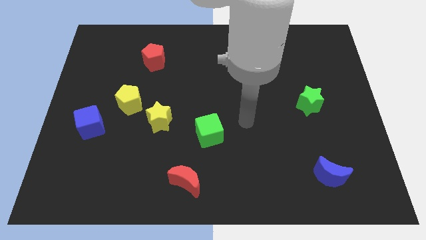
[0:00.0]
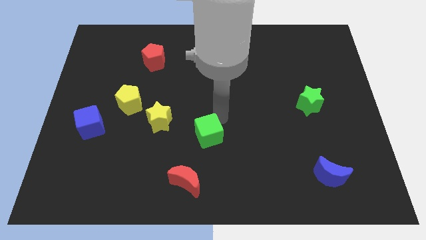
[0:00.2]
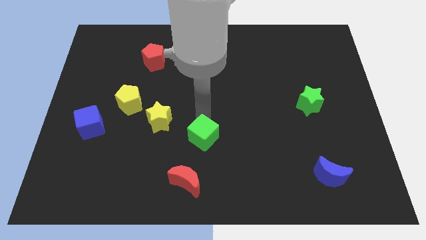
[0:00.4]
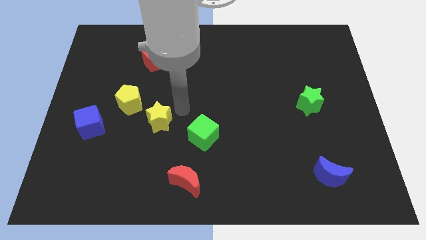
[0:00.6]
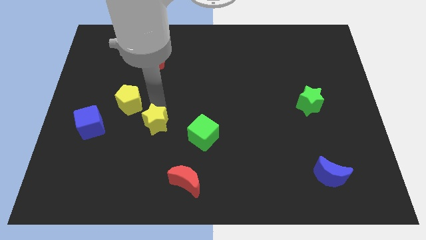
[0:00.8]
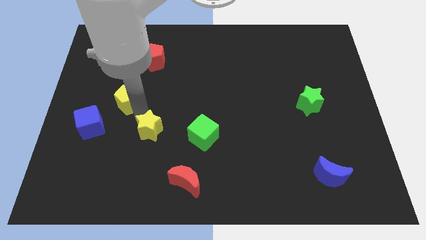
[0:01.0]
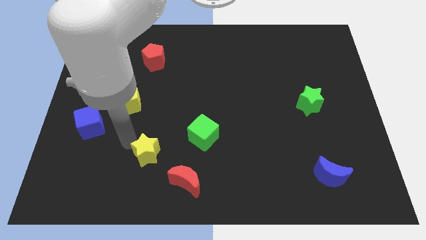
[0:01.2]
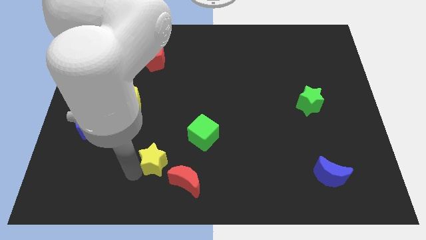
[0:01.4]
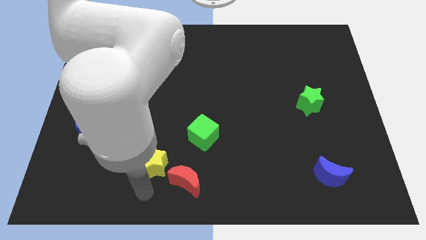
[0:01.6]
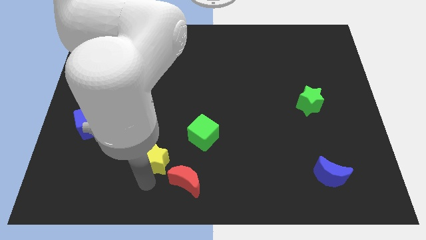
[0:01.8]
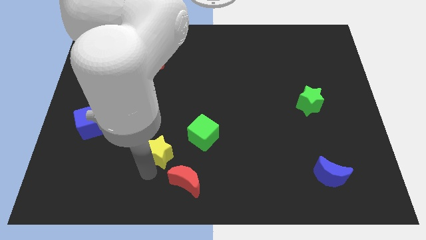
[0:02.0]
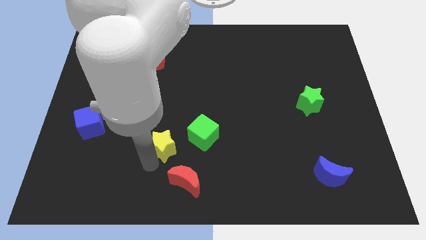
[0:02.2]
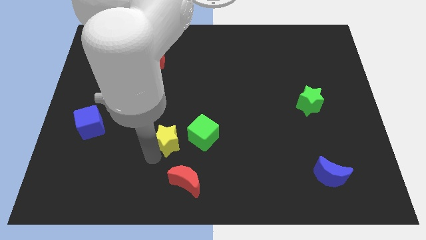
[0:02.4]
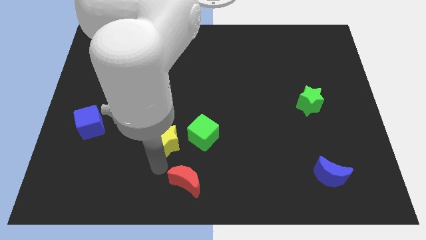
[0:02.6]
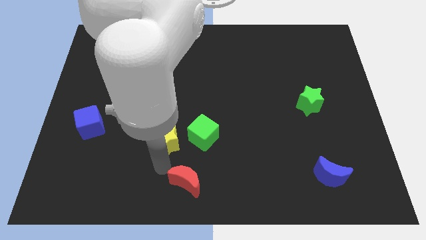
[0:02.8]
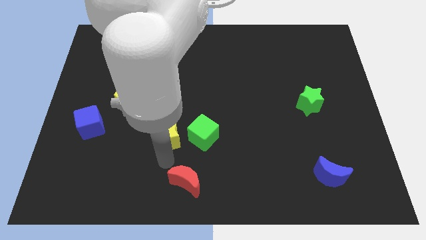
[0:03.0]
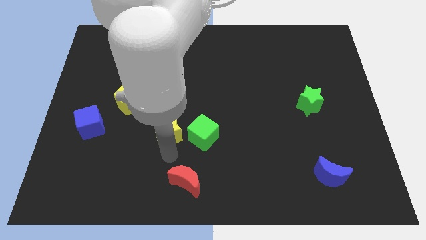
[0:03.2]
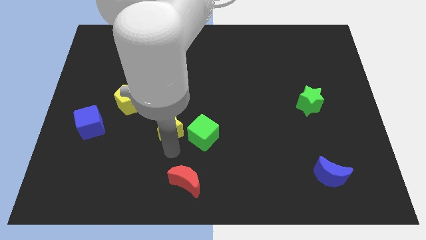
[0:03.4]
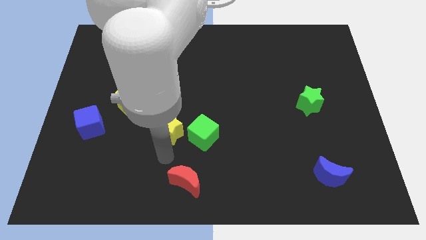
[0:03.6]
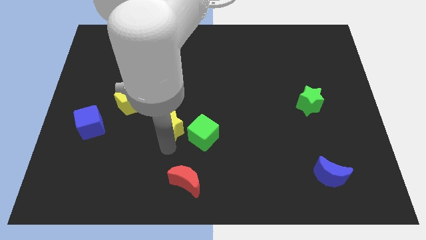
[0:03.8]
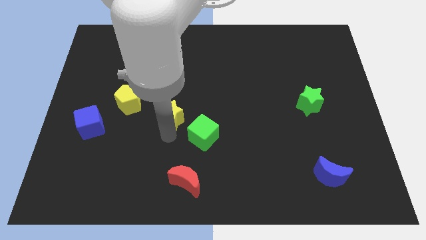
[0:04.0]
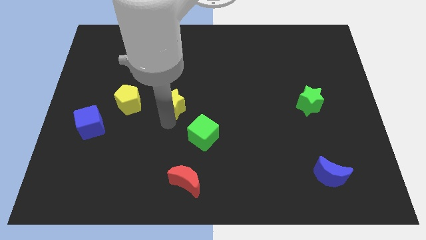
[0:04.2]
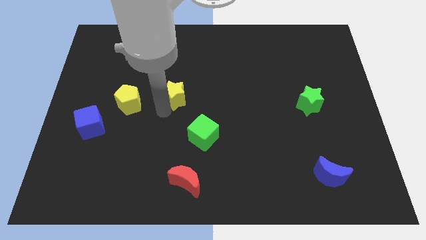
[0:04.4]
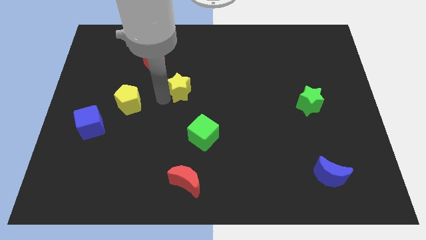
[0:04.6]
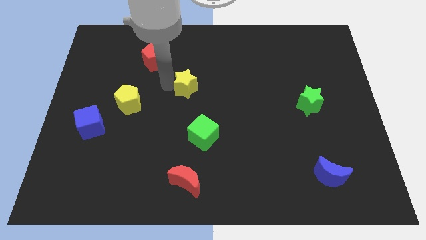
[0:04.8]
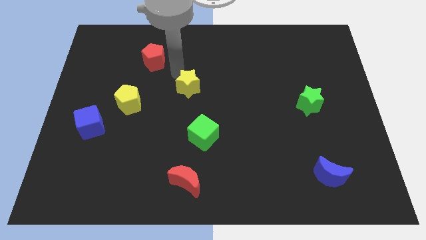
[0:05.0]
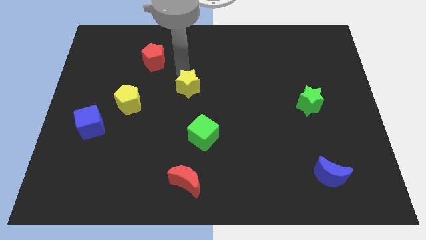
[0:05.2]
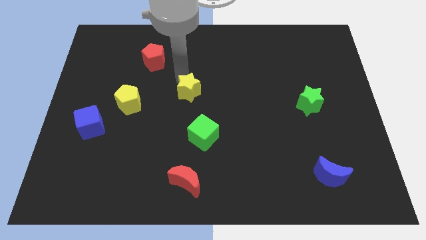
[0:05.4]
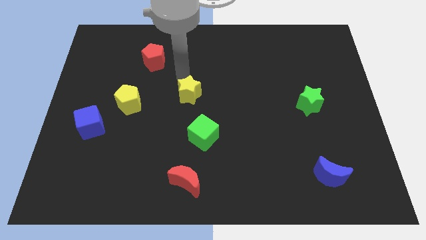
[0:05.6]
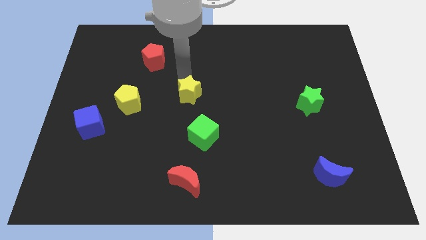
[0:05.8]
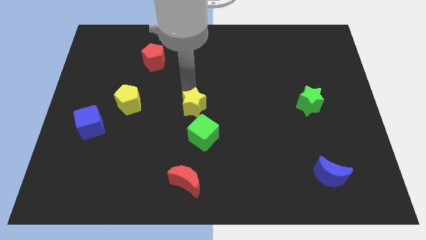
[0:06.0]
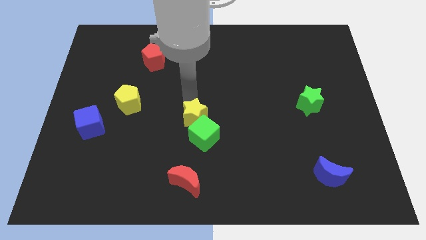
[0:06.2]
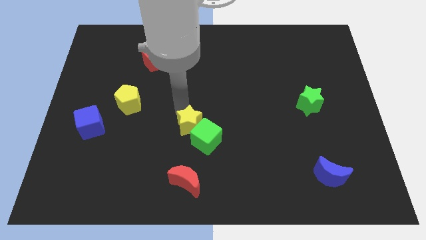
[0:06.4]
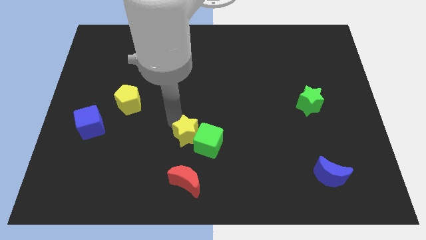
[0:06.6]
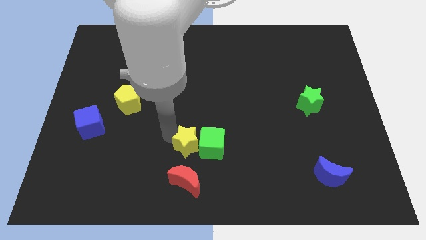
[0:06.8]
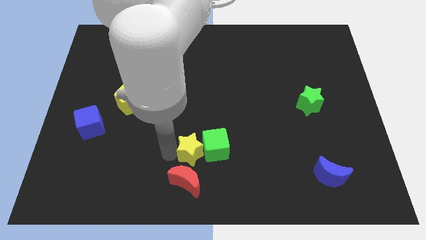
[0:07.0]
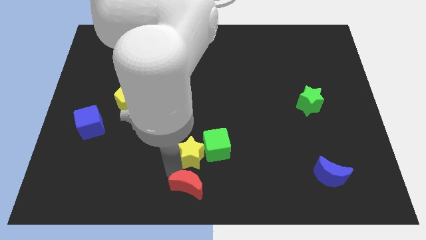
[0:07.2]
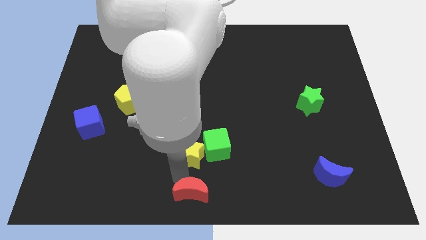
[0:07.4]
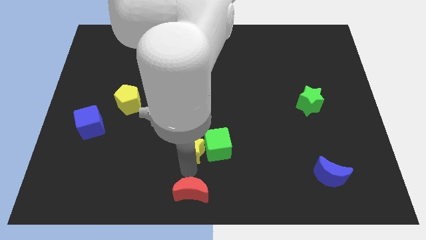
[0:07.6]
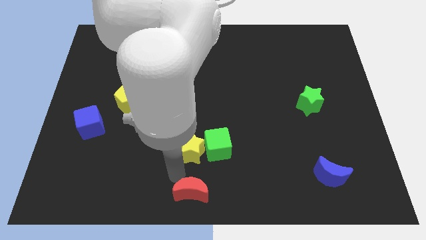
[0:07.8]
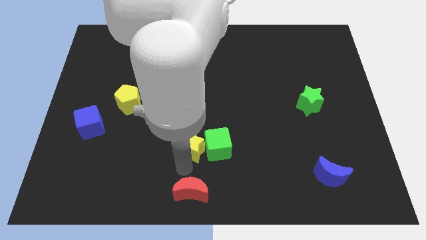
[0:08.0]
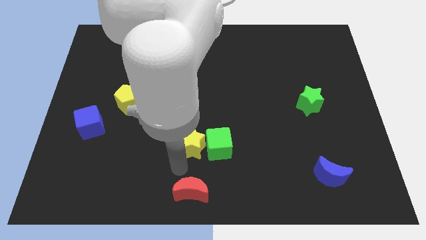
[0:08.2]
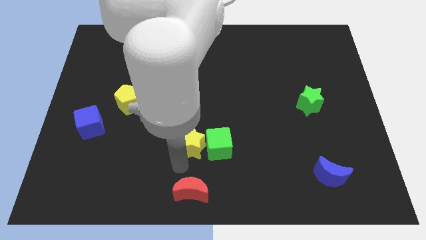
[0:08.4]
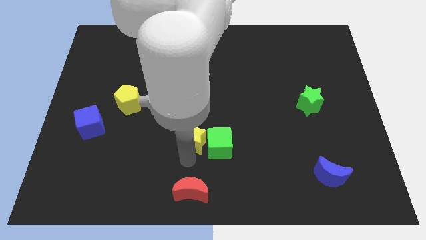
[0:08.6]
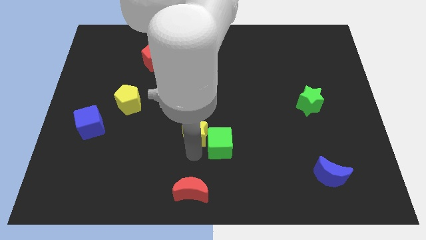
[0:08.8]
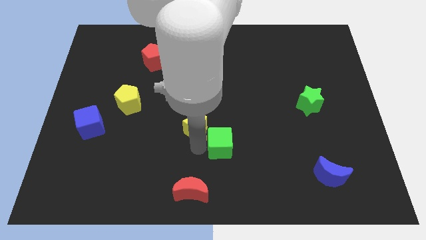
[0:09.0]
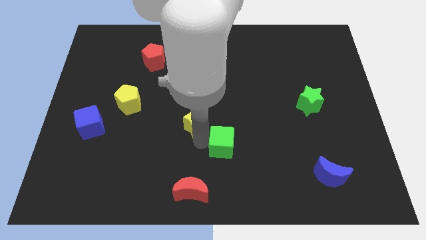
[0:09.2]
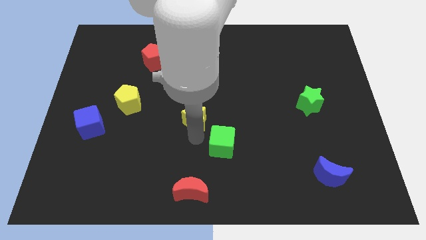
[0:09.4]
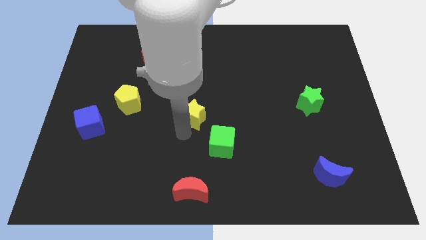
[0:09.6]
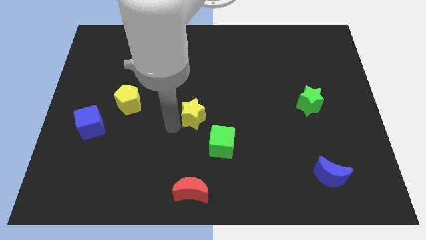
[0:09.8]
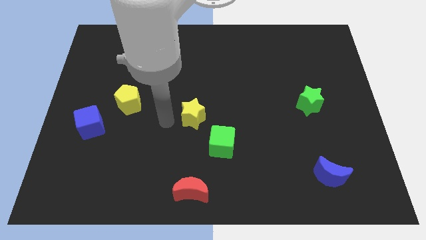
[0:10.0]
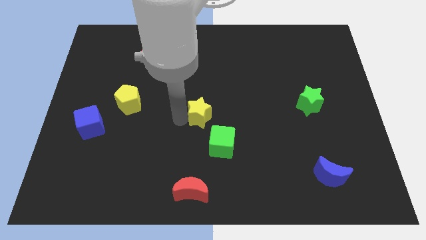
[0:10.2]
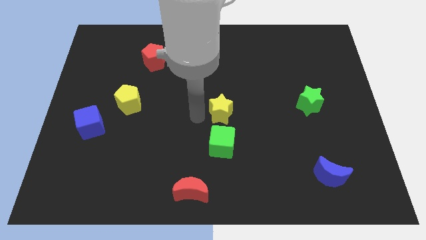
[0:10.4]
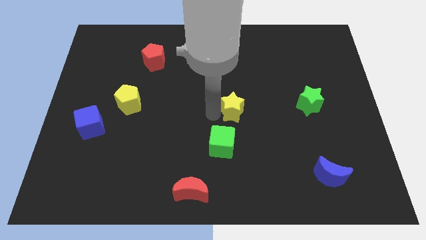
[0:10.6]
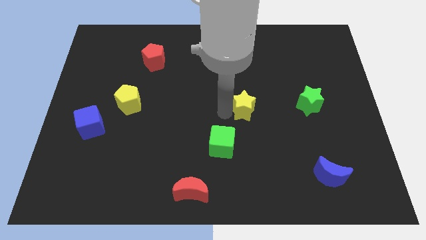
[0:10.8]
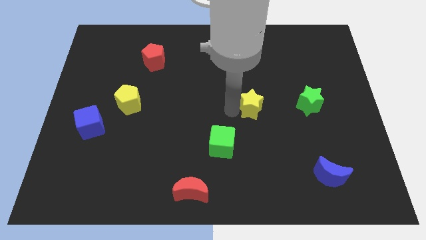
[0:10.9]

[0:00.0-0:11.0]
push the yellow star right

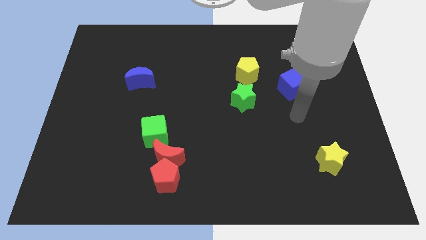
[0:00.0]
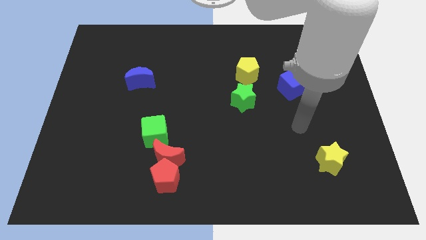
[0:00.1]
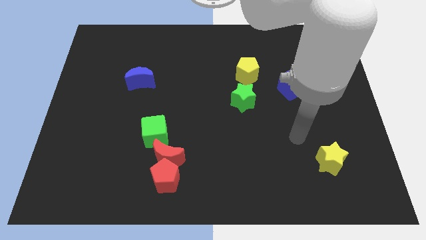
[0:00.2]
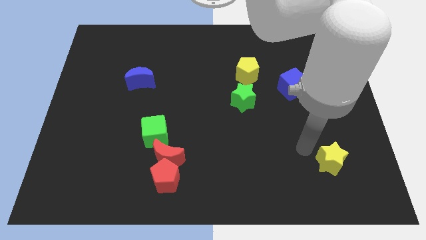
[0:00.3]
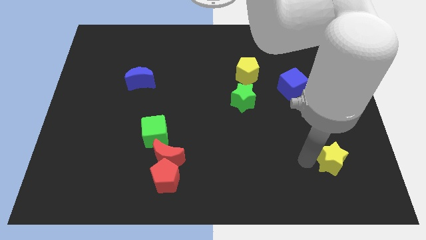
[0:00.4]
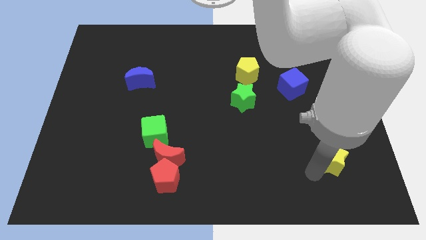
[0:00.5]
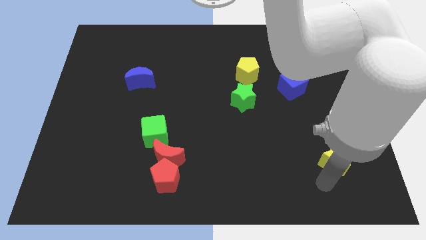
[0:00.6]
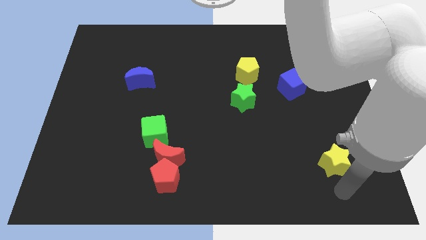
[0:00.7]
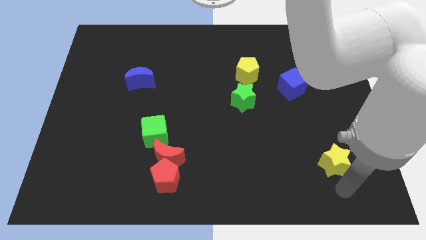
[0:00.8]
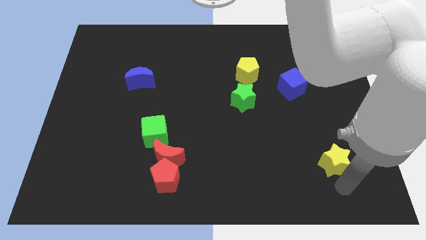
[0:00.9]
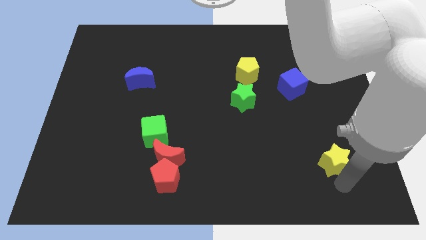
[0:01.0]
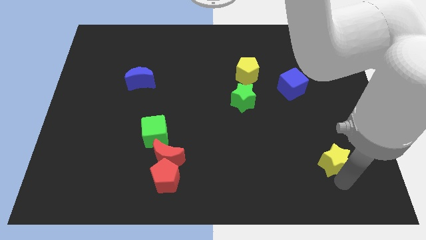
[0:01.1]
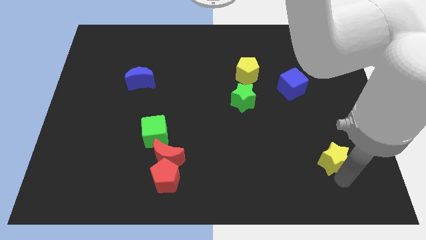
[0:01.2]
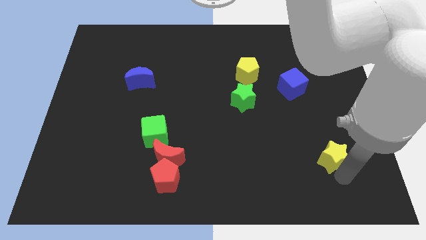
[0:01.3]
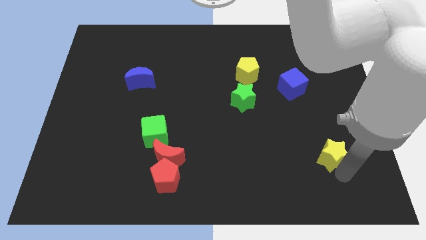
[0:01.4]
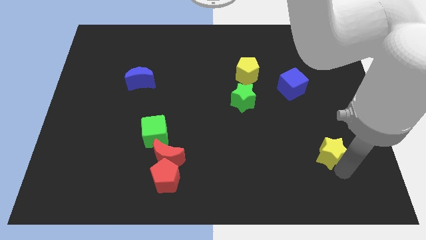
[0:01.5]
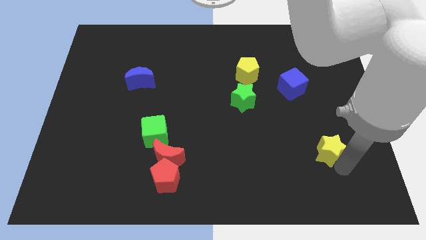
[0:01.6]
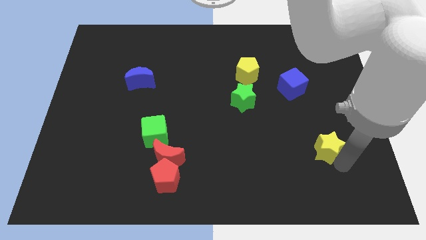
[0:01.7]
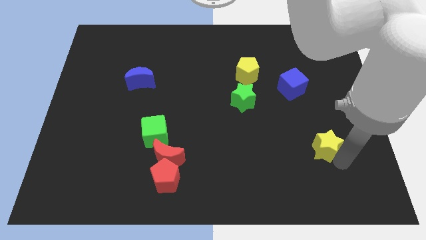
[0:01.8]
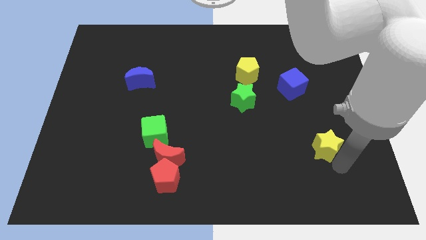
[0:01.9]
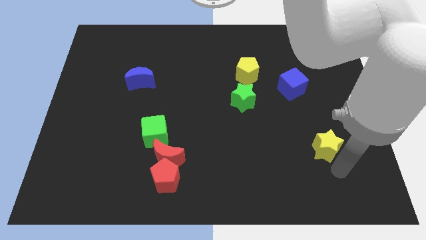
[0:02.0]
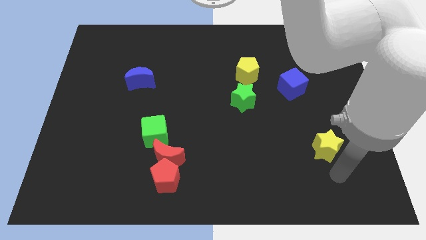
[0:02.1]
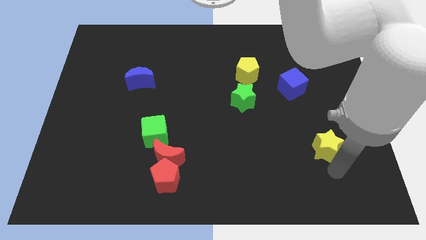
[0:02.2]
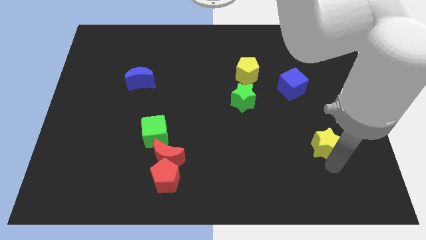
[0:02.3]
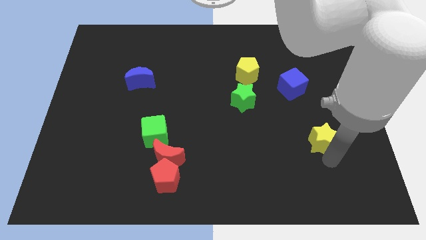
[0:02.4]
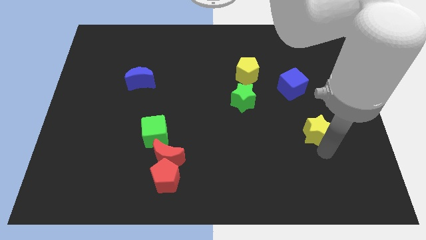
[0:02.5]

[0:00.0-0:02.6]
move the yellow star up somewhat
